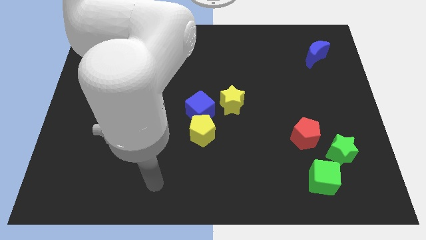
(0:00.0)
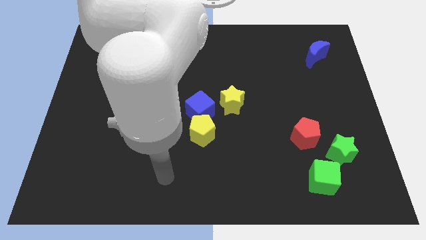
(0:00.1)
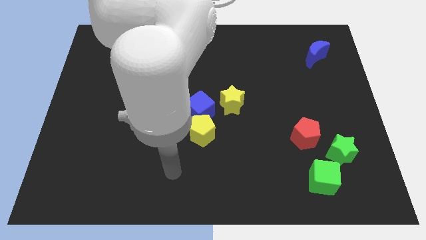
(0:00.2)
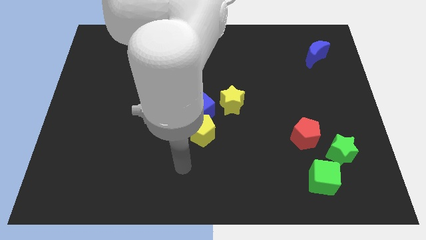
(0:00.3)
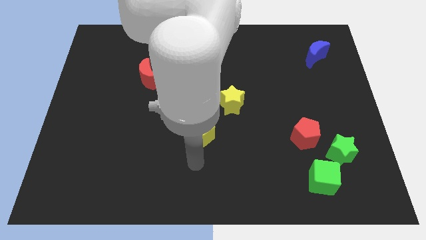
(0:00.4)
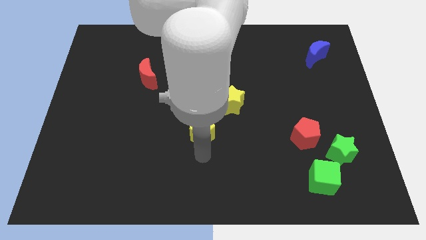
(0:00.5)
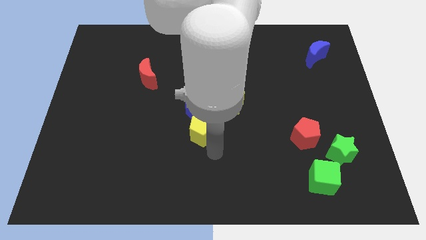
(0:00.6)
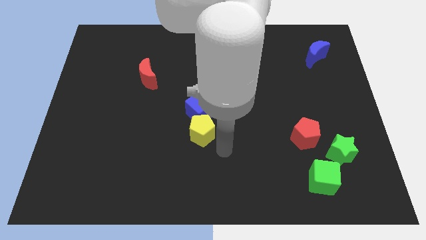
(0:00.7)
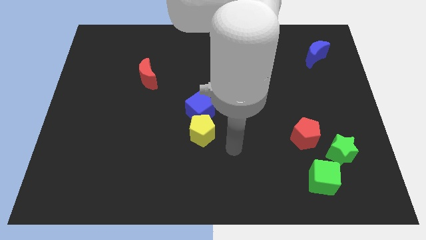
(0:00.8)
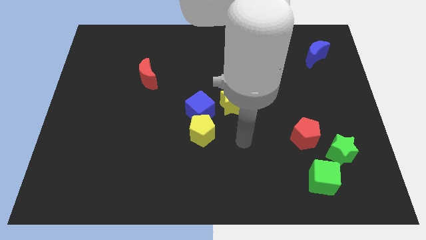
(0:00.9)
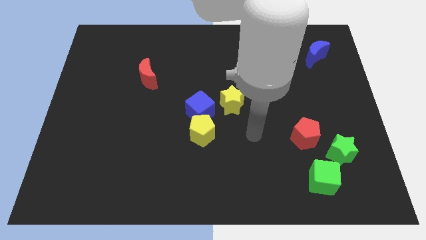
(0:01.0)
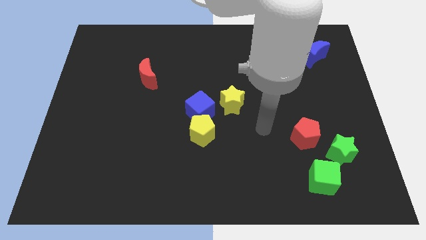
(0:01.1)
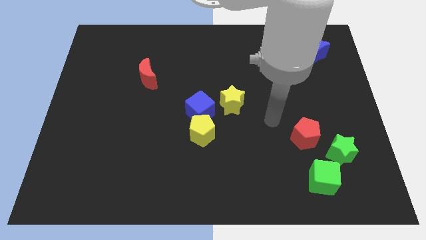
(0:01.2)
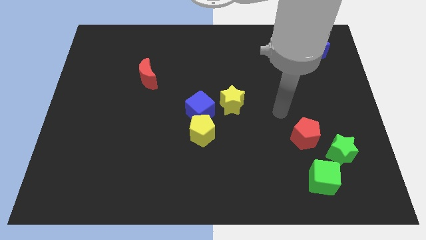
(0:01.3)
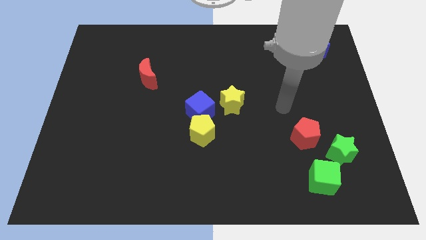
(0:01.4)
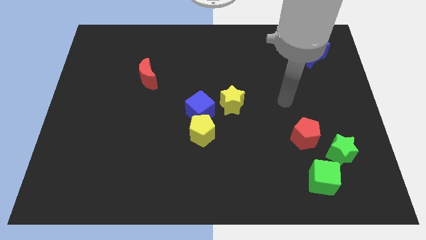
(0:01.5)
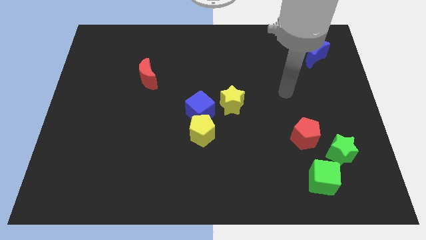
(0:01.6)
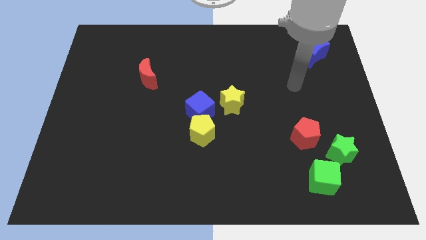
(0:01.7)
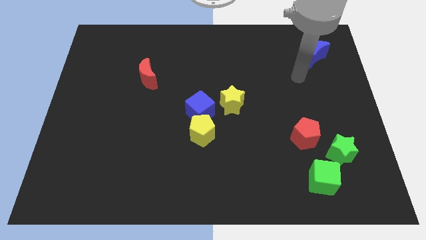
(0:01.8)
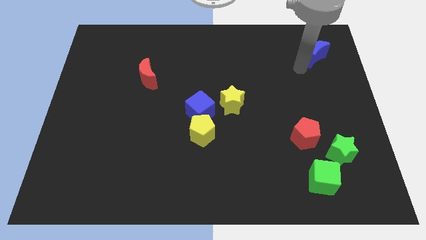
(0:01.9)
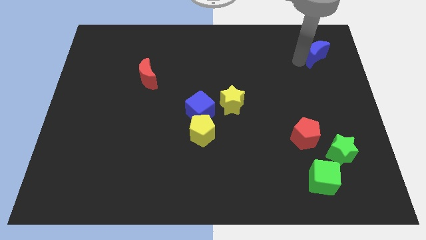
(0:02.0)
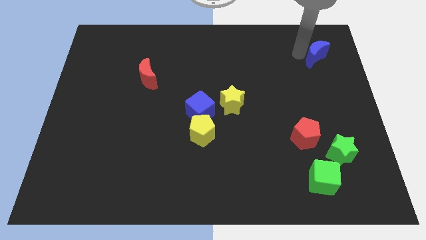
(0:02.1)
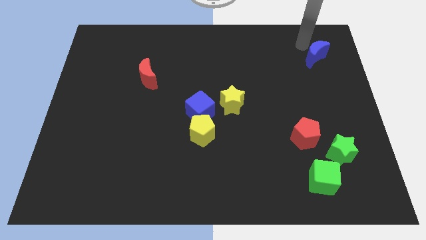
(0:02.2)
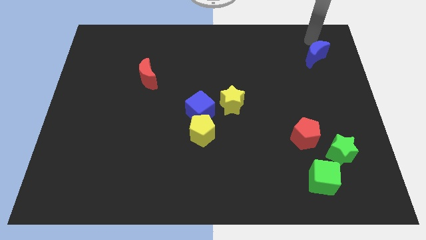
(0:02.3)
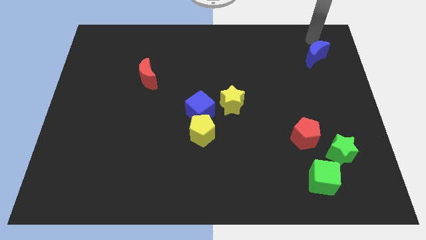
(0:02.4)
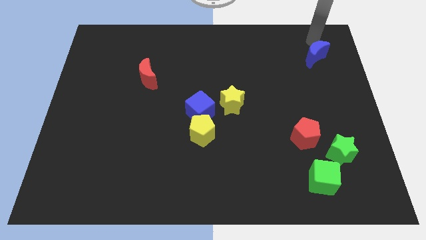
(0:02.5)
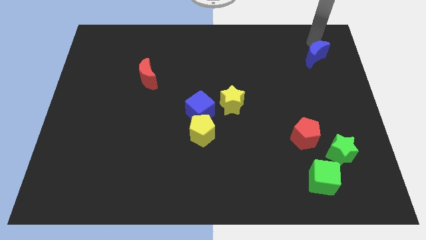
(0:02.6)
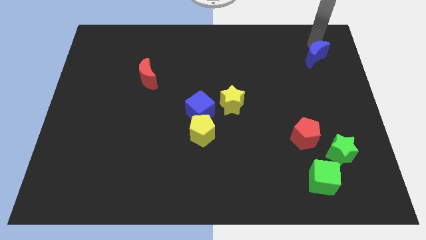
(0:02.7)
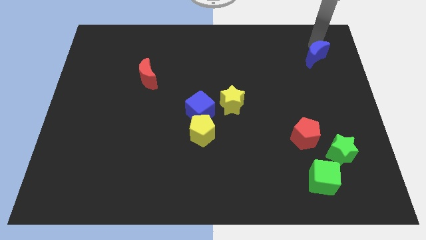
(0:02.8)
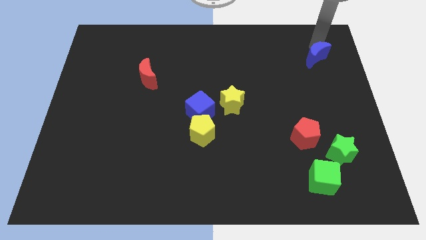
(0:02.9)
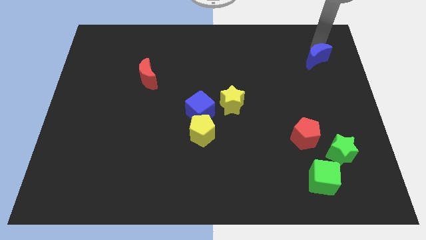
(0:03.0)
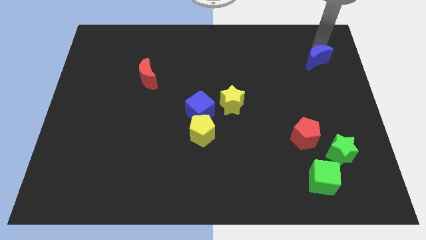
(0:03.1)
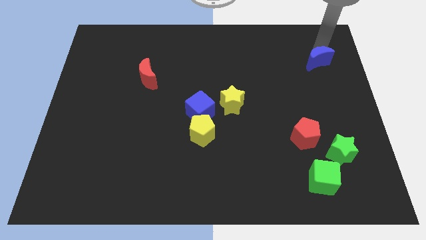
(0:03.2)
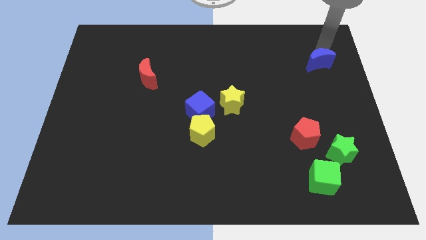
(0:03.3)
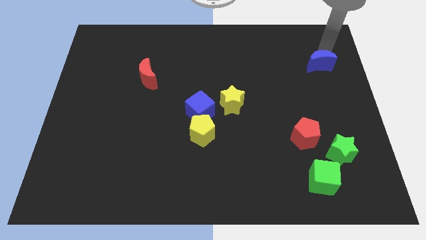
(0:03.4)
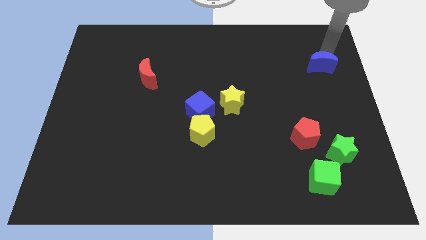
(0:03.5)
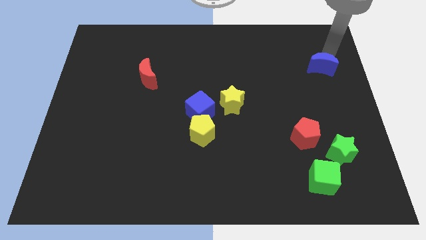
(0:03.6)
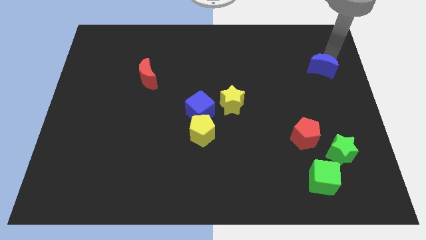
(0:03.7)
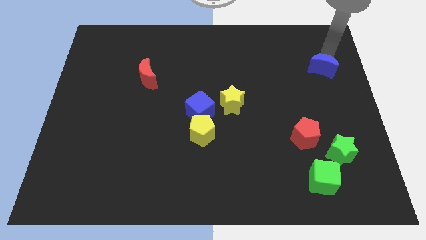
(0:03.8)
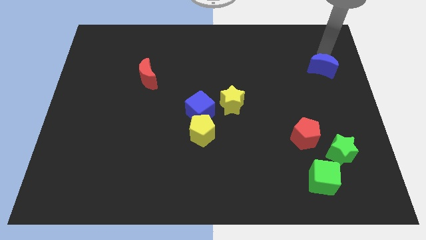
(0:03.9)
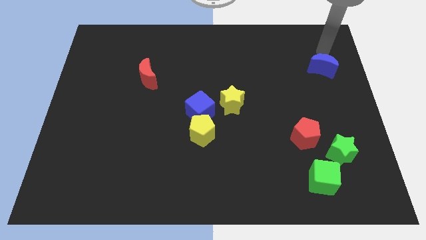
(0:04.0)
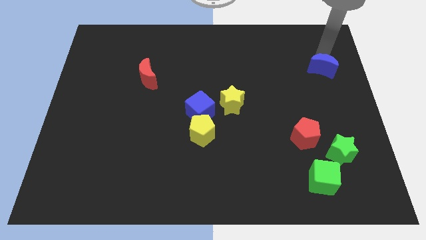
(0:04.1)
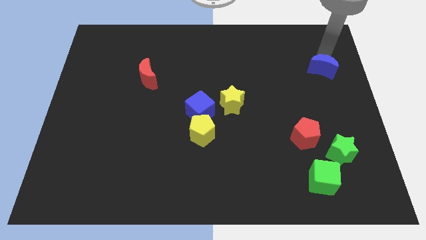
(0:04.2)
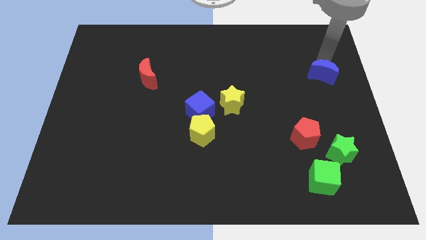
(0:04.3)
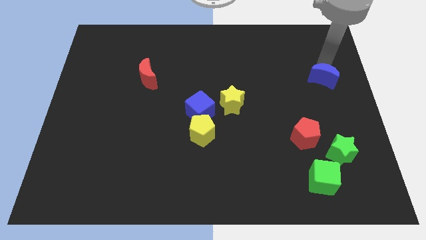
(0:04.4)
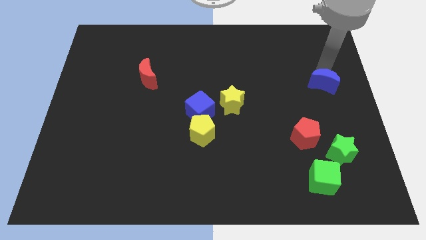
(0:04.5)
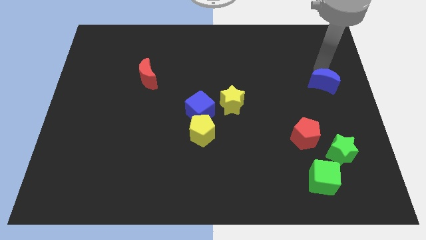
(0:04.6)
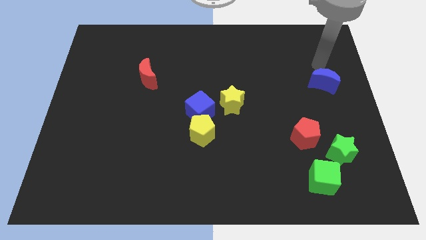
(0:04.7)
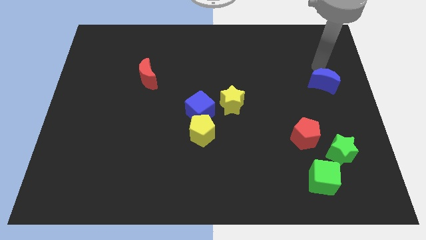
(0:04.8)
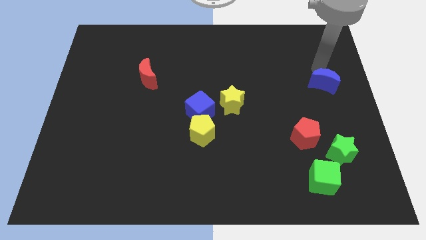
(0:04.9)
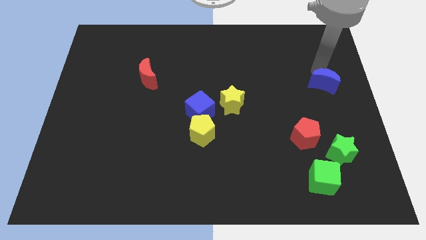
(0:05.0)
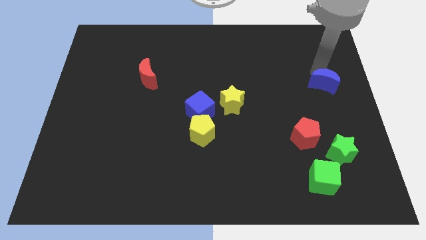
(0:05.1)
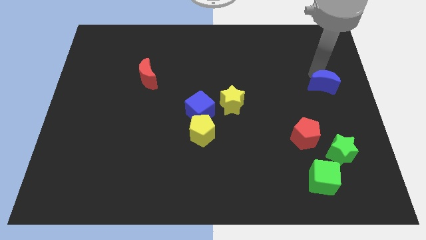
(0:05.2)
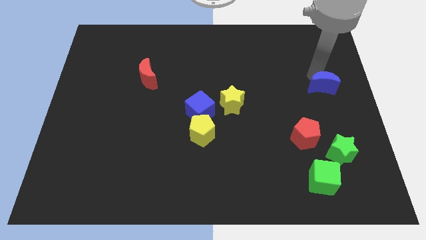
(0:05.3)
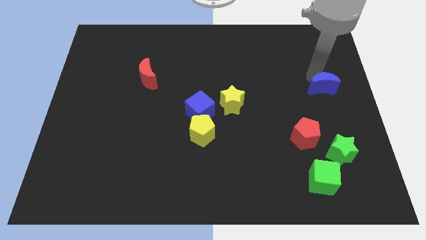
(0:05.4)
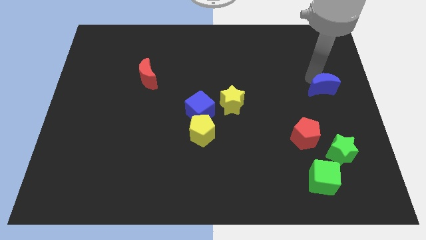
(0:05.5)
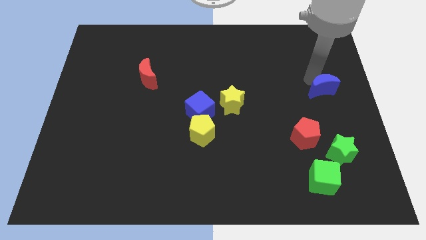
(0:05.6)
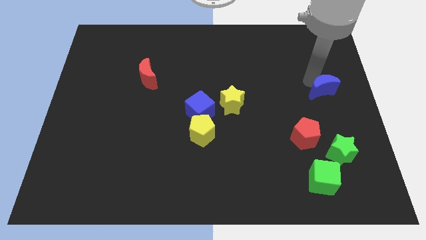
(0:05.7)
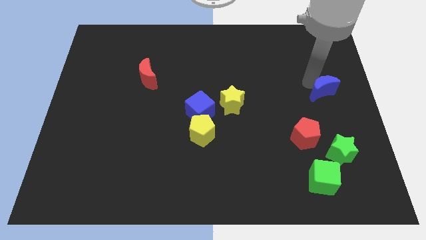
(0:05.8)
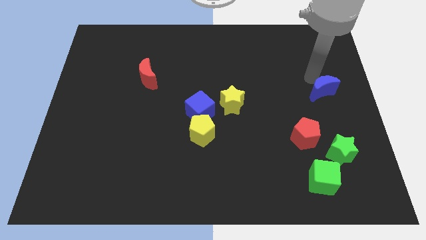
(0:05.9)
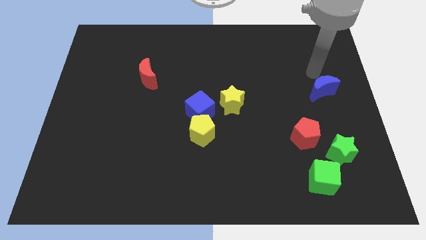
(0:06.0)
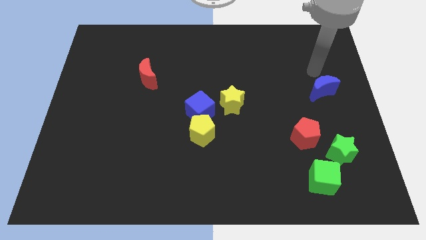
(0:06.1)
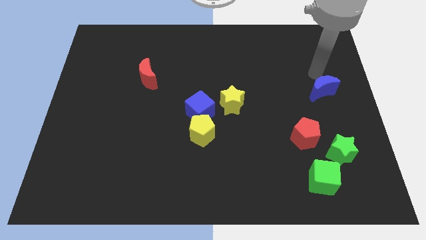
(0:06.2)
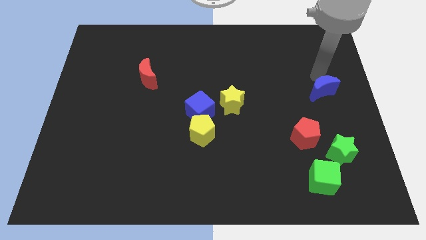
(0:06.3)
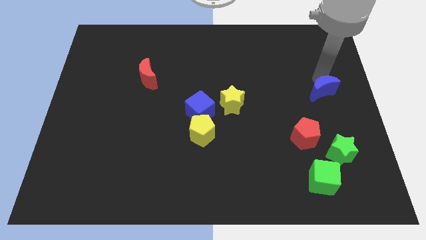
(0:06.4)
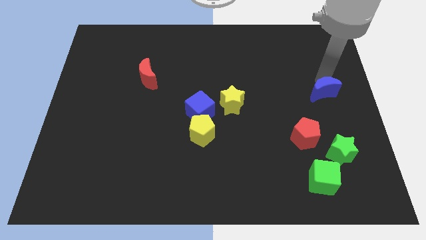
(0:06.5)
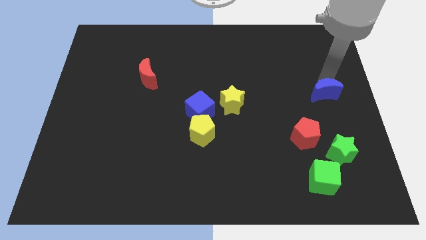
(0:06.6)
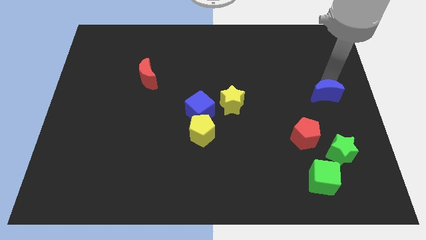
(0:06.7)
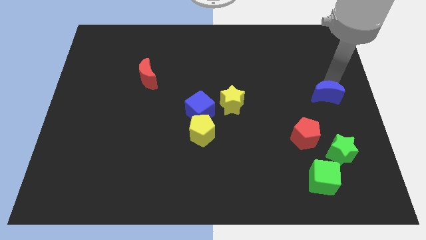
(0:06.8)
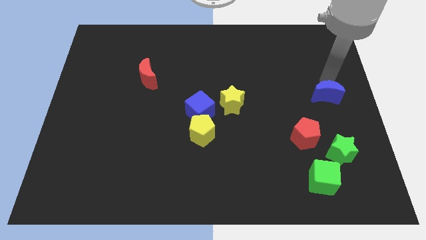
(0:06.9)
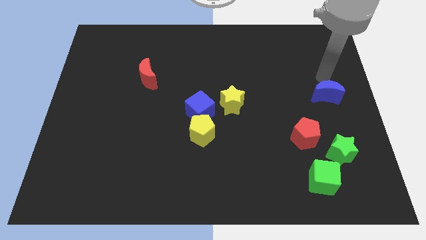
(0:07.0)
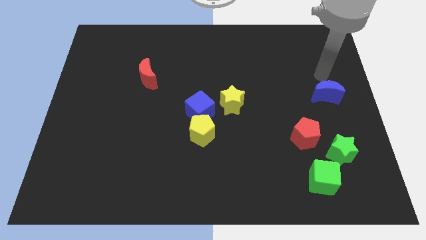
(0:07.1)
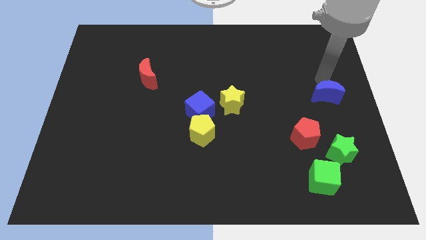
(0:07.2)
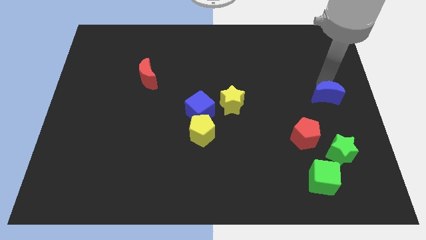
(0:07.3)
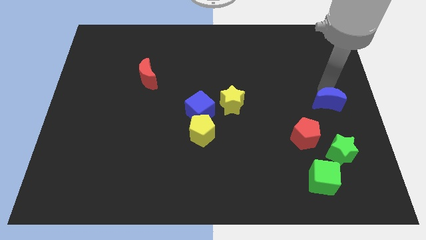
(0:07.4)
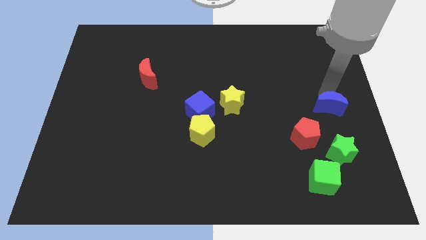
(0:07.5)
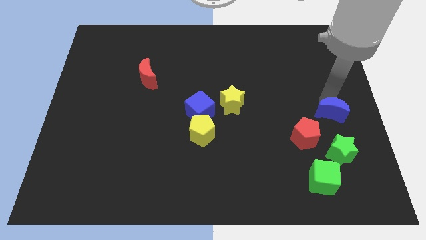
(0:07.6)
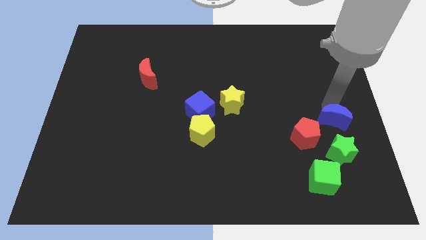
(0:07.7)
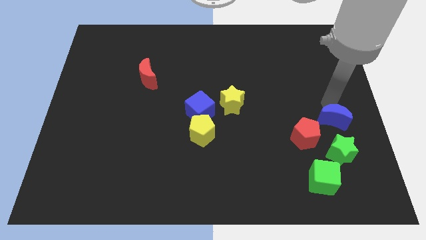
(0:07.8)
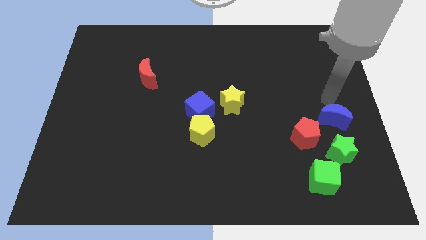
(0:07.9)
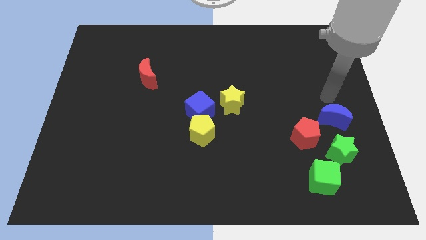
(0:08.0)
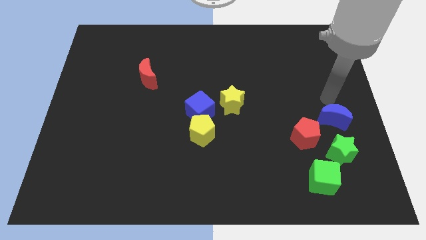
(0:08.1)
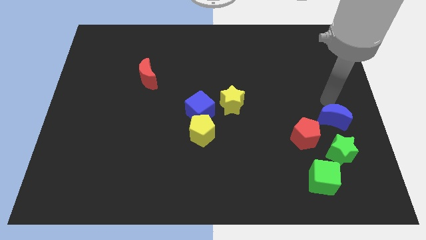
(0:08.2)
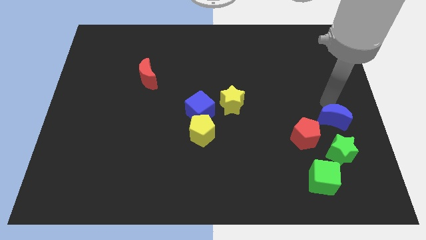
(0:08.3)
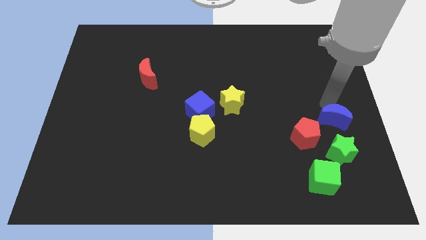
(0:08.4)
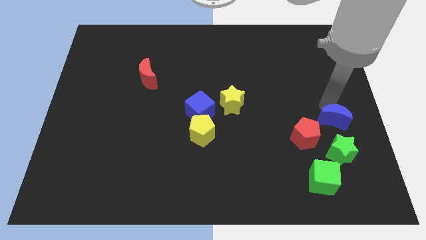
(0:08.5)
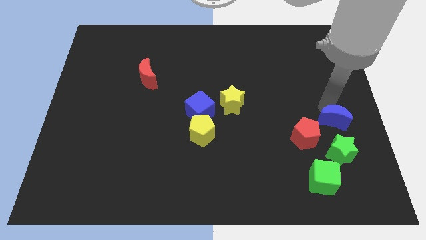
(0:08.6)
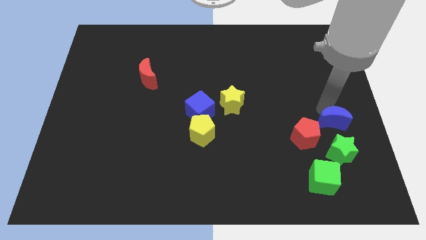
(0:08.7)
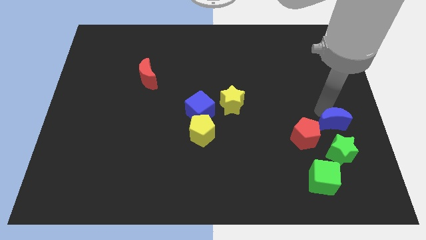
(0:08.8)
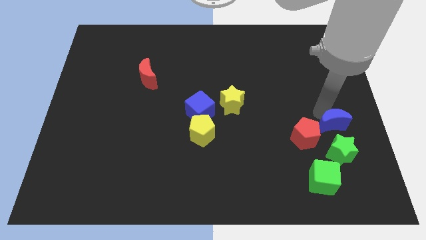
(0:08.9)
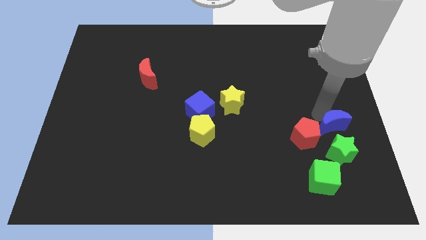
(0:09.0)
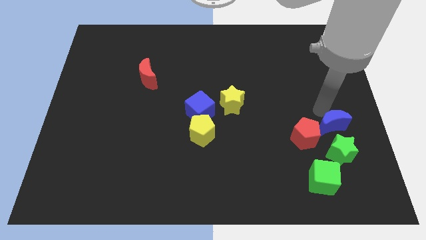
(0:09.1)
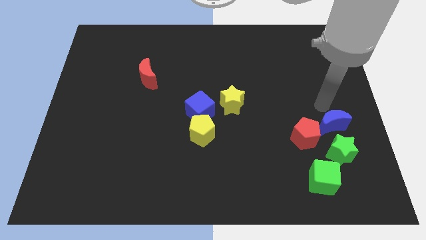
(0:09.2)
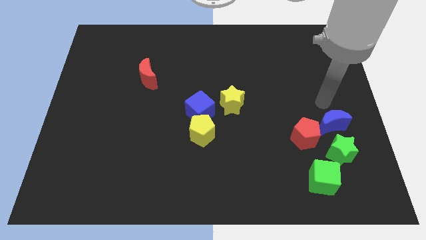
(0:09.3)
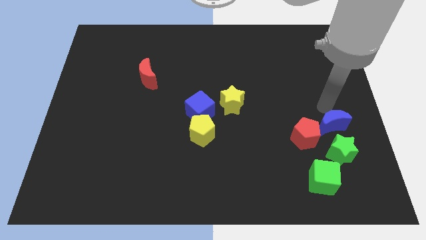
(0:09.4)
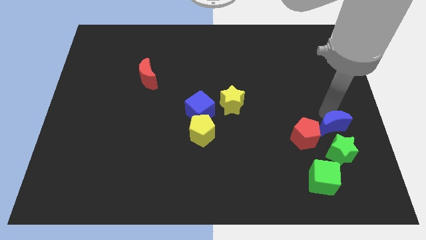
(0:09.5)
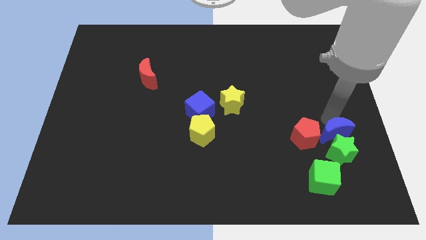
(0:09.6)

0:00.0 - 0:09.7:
put the blue moon close to the green star
